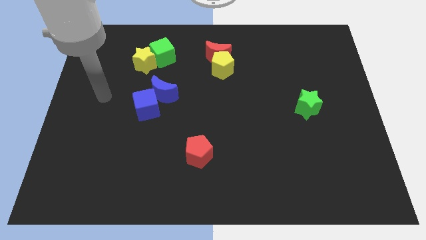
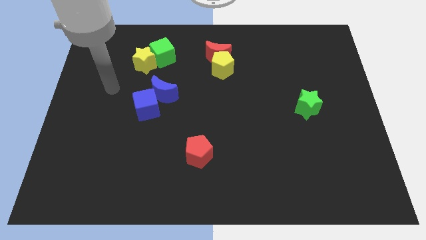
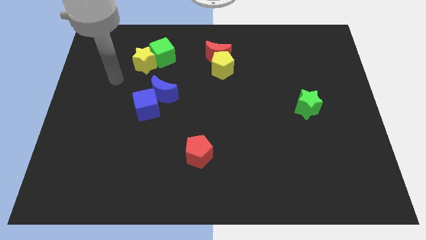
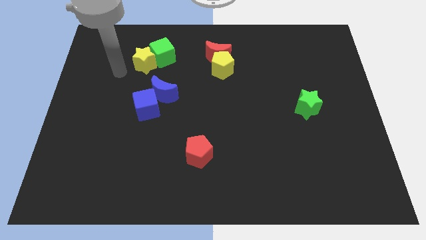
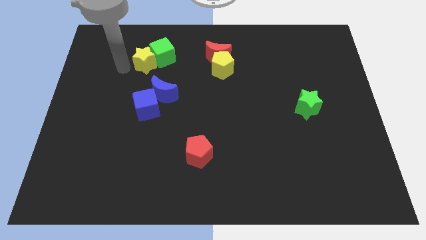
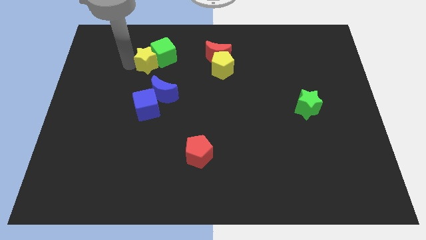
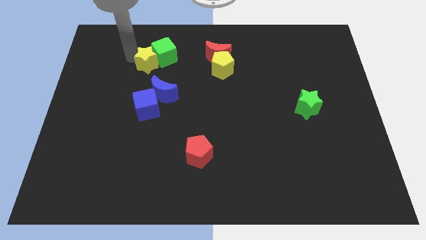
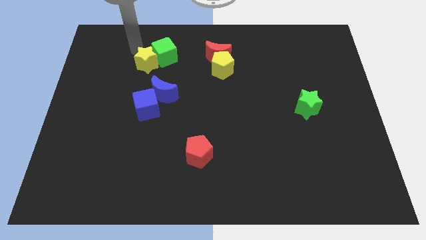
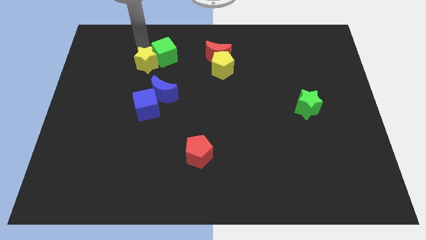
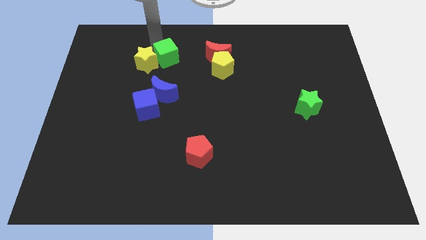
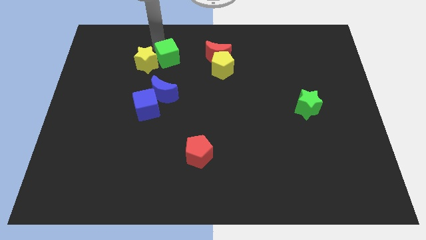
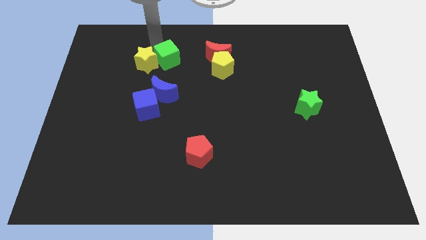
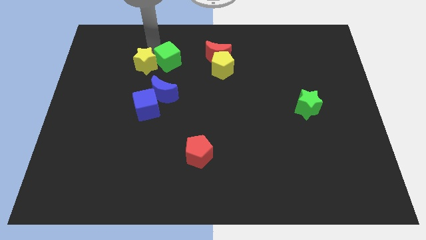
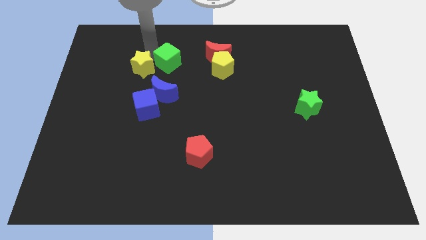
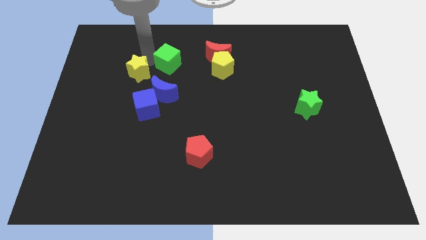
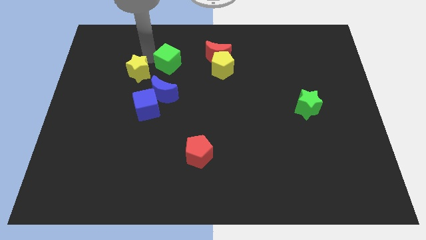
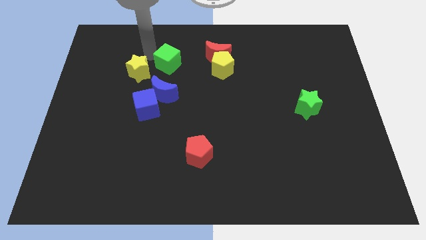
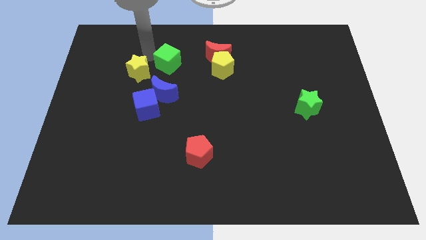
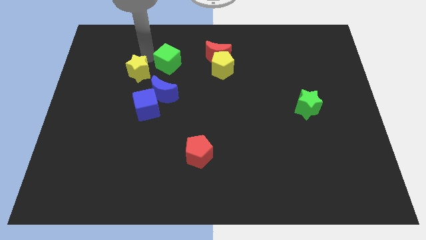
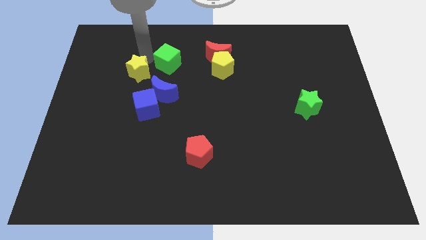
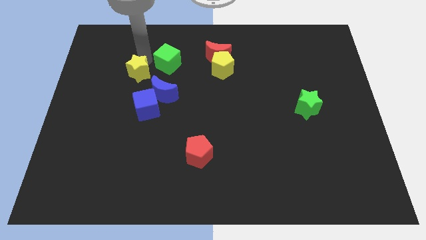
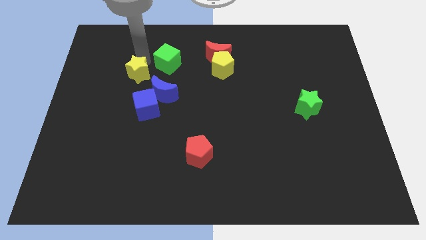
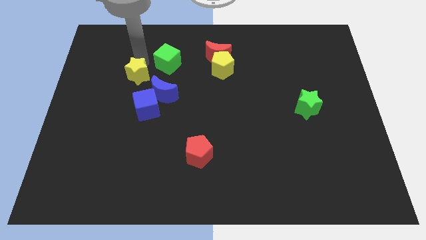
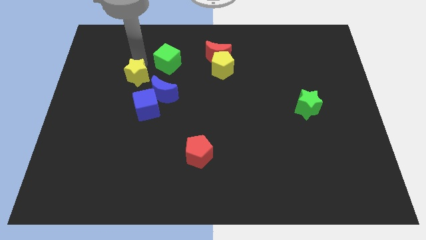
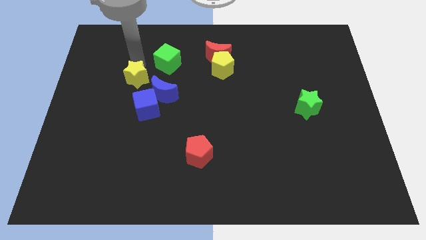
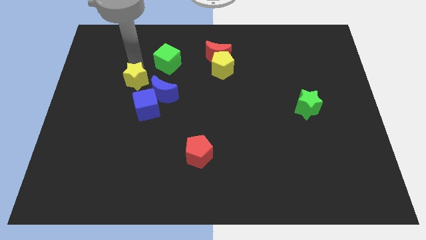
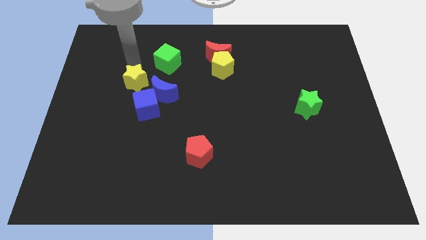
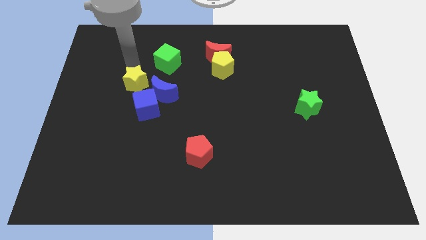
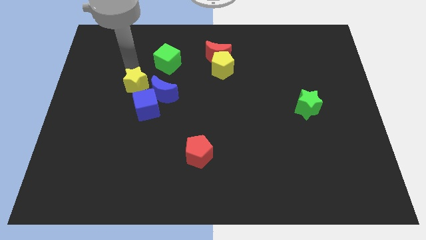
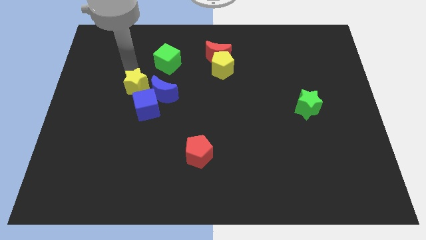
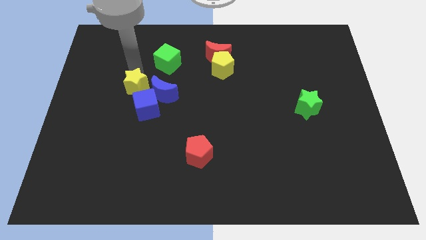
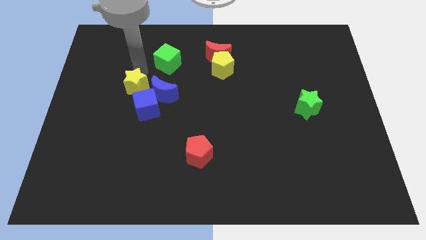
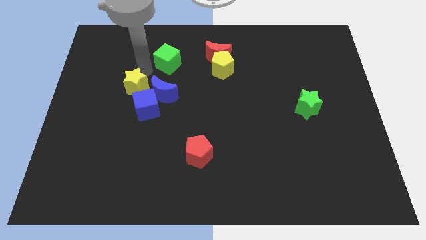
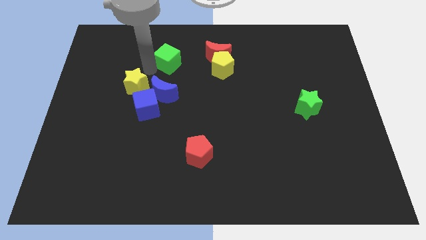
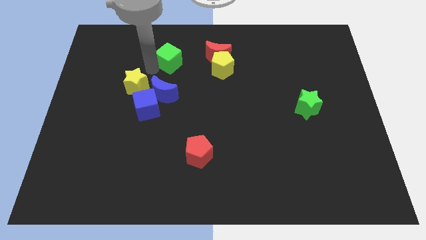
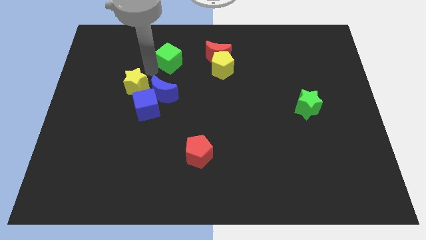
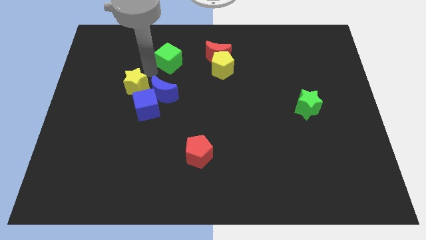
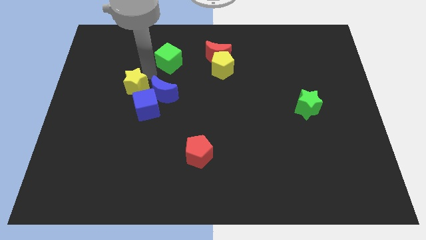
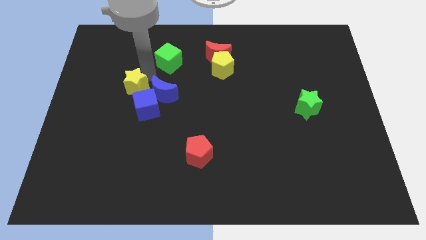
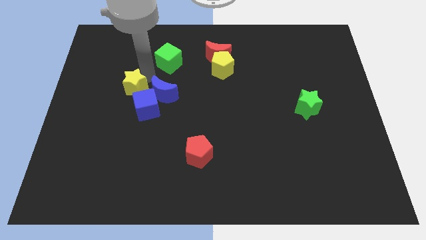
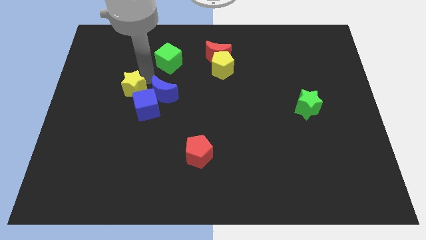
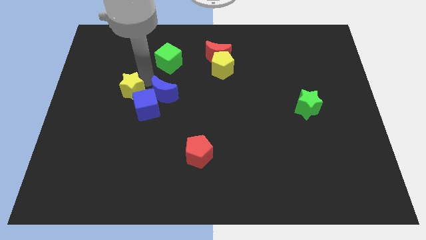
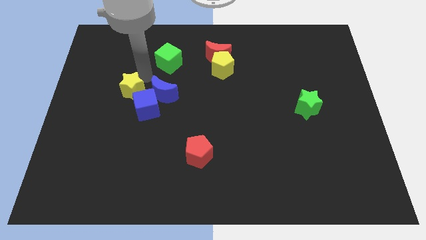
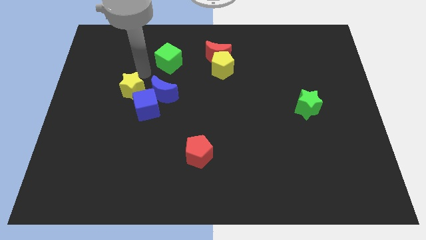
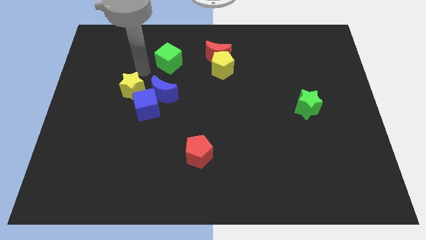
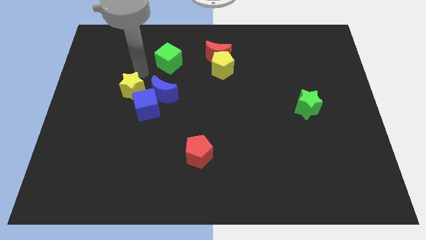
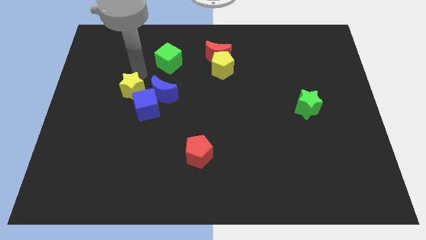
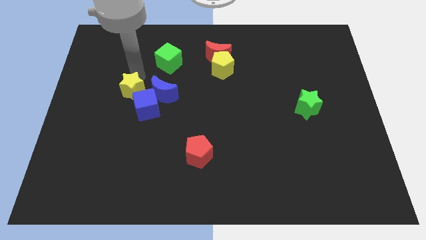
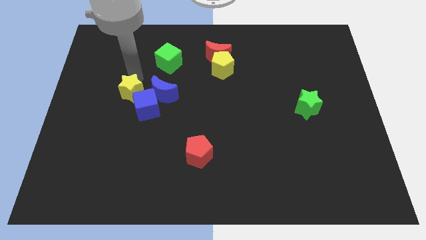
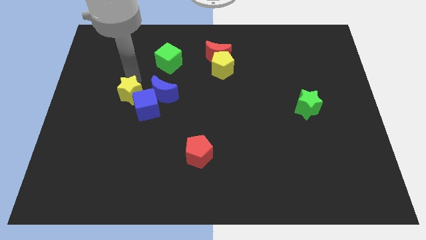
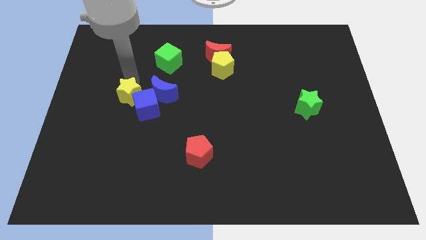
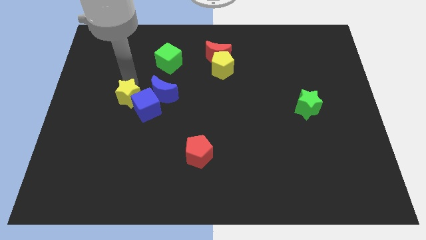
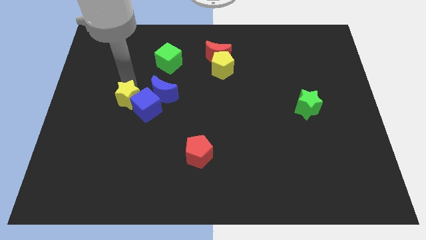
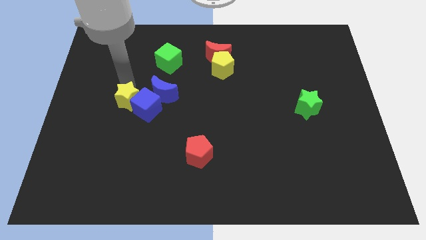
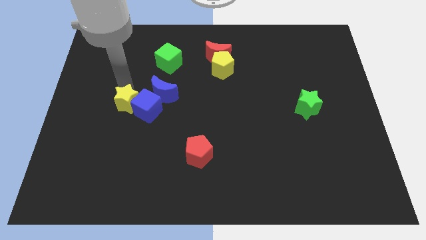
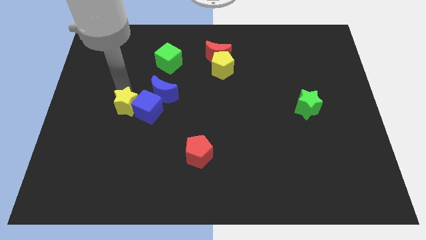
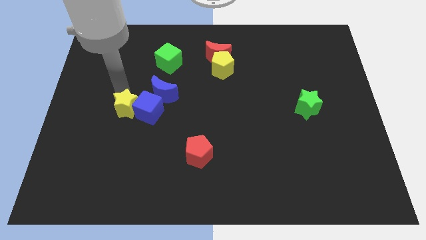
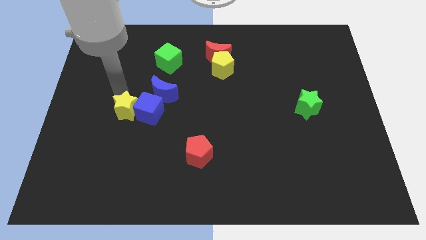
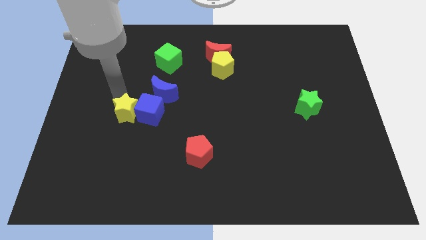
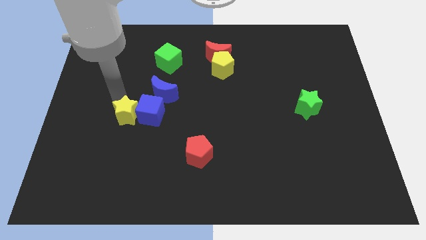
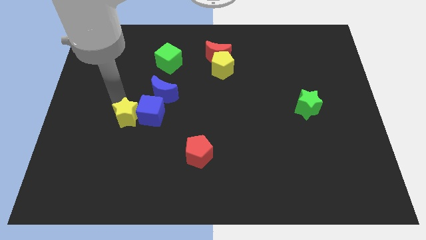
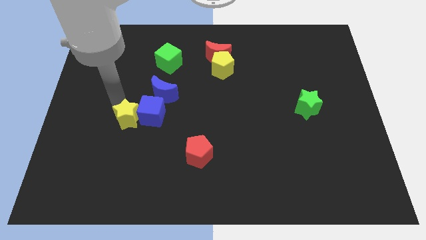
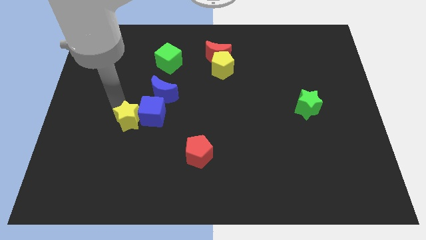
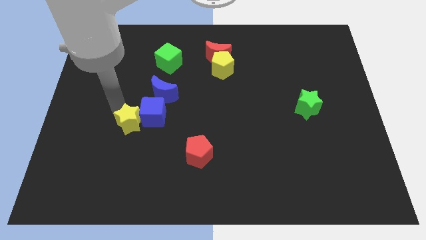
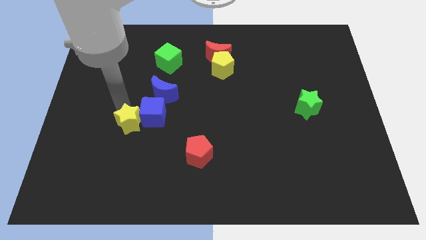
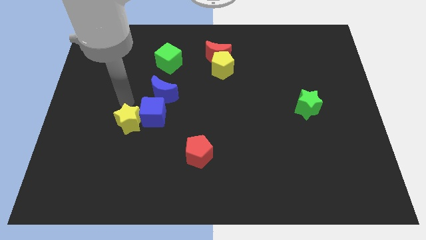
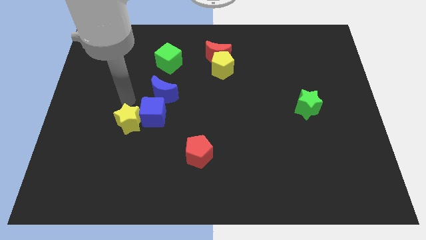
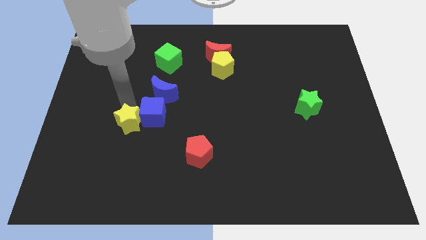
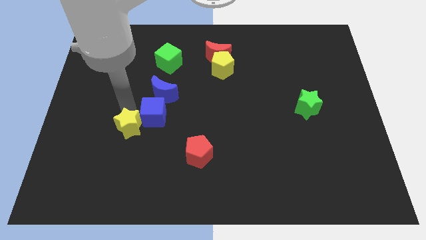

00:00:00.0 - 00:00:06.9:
push the yellow star down

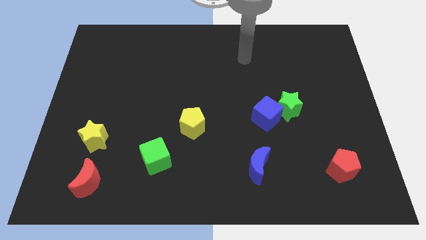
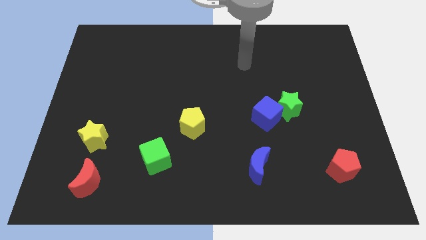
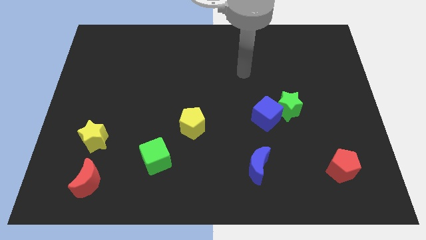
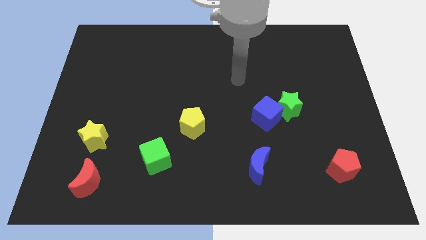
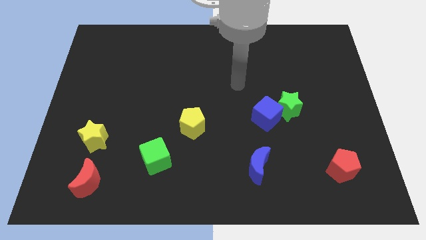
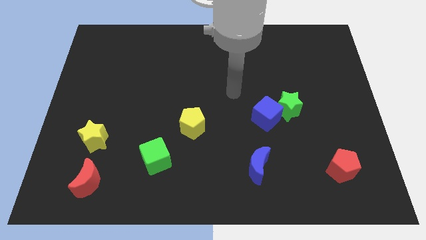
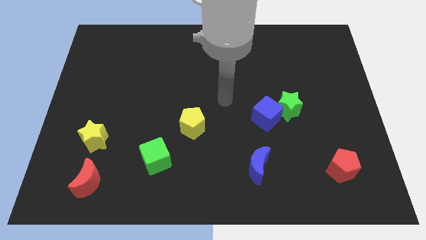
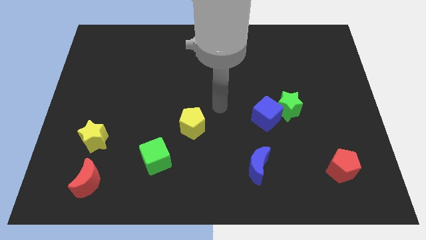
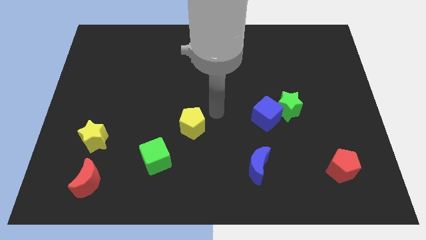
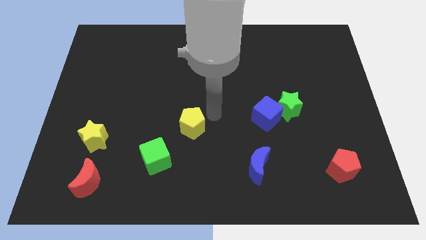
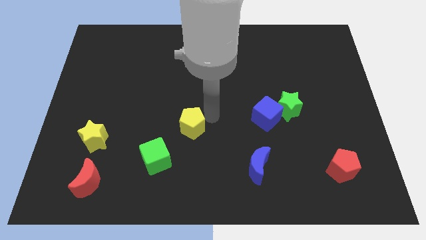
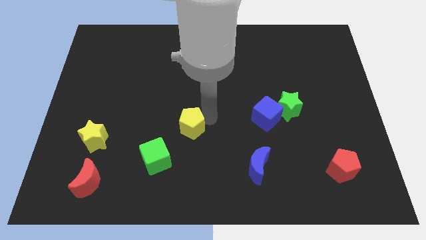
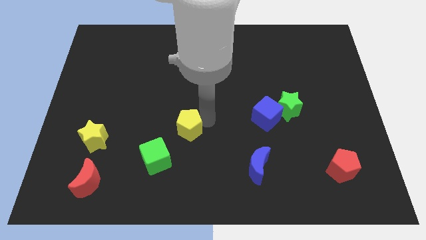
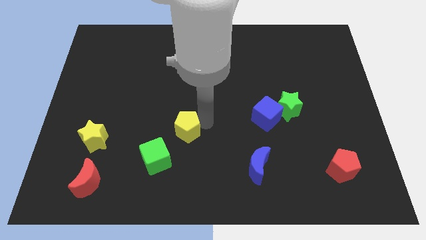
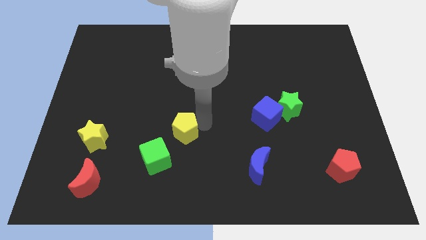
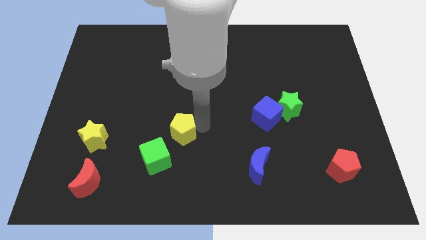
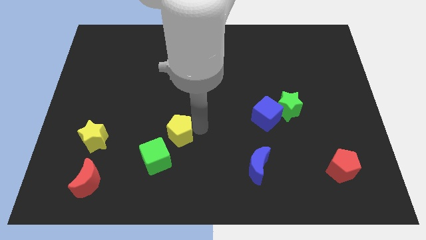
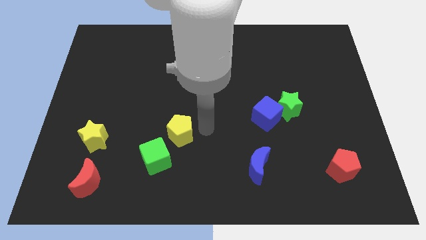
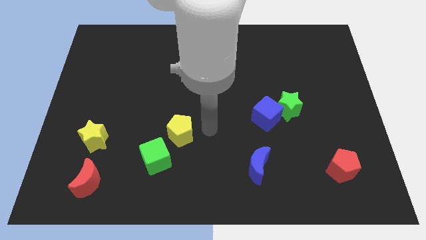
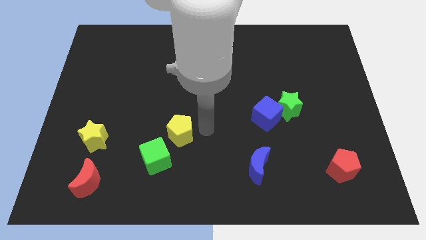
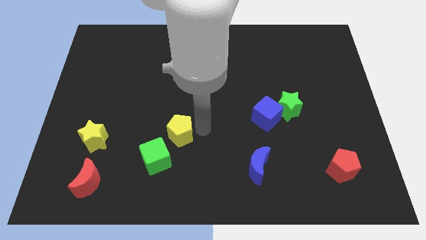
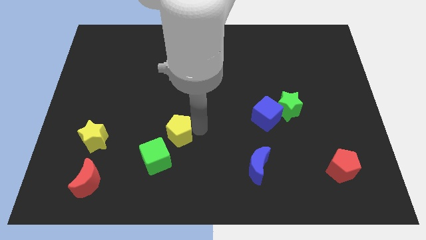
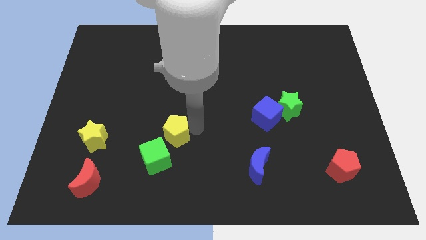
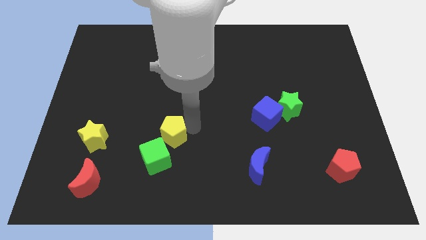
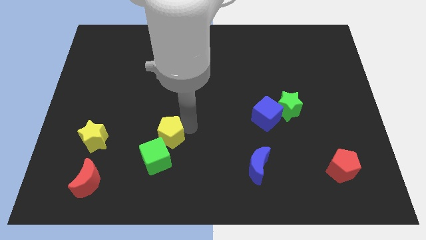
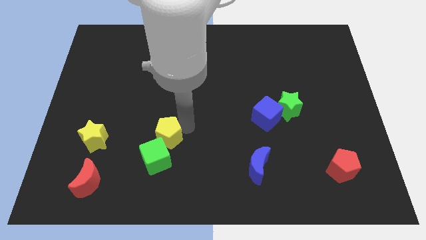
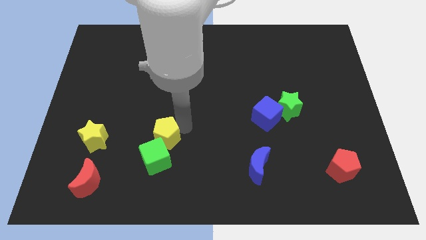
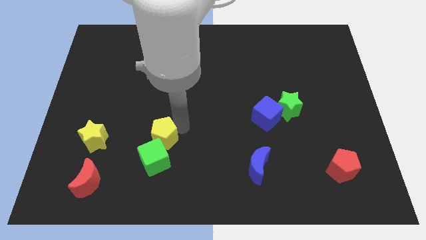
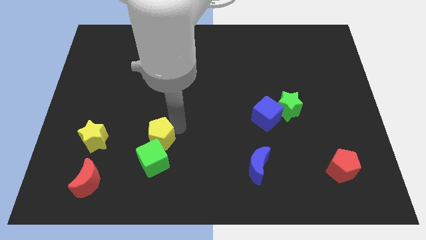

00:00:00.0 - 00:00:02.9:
push the yellow pentagon downwards and then left a bit
